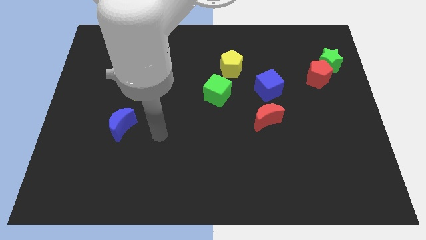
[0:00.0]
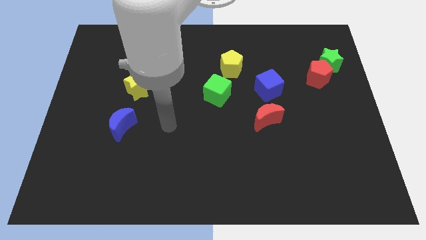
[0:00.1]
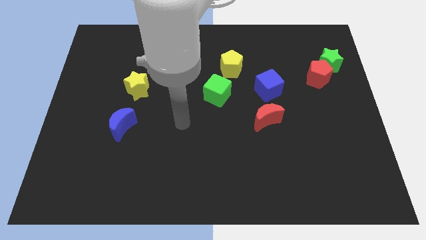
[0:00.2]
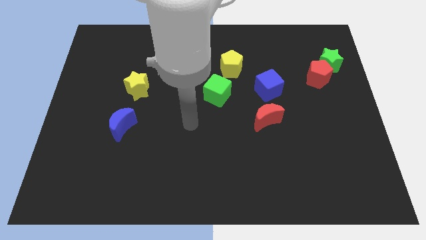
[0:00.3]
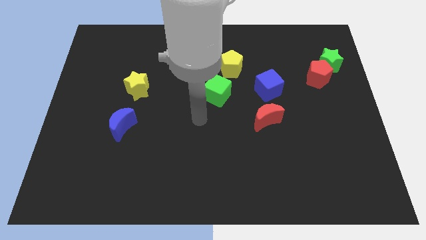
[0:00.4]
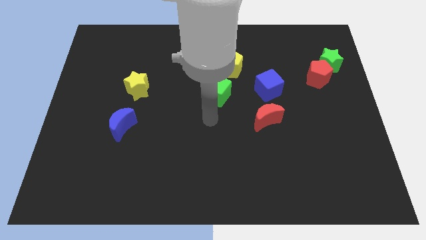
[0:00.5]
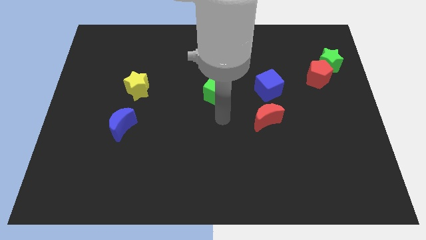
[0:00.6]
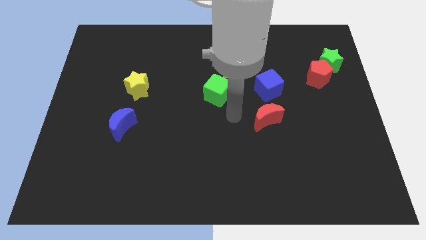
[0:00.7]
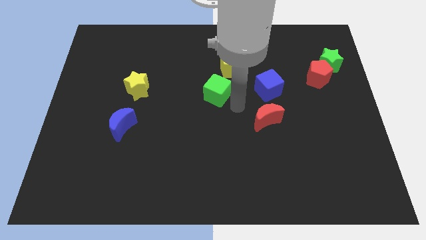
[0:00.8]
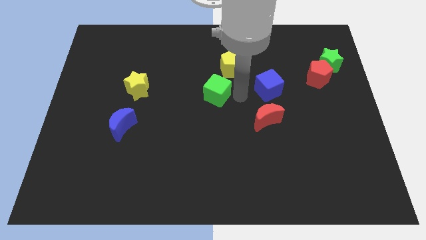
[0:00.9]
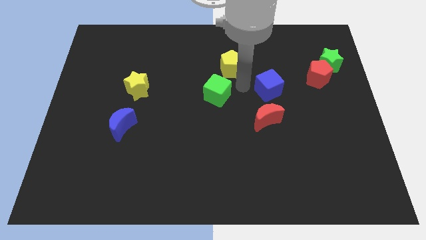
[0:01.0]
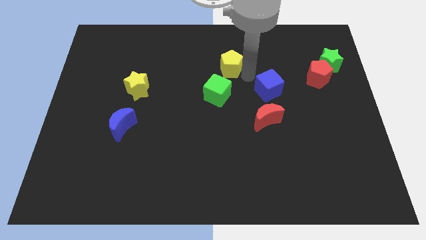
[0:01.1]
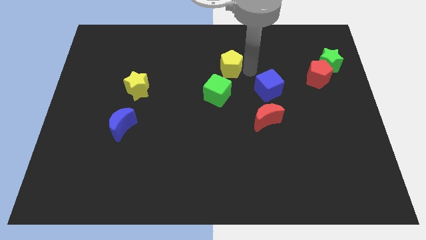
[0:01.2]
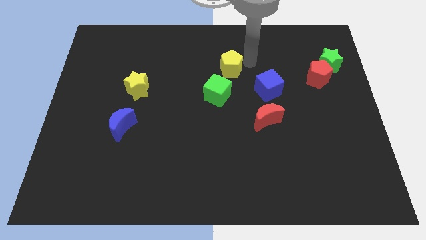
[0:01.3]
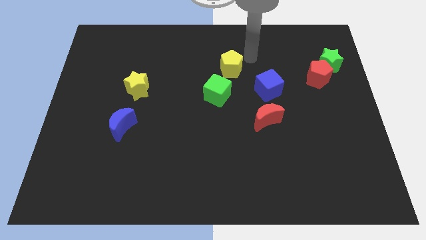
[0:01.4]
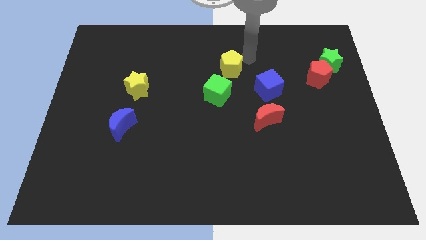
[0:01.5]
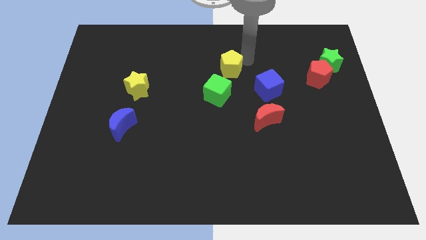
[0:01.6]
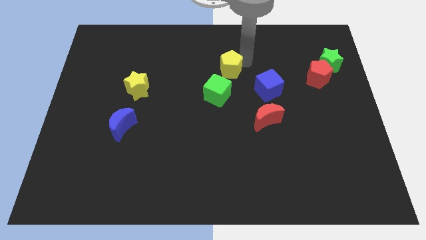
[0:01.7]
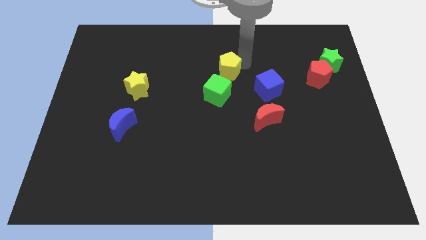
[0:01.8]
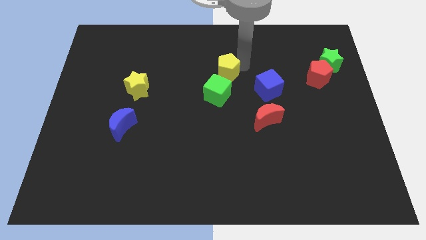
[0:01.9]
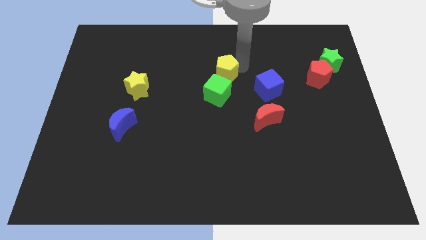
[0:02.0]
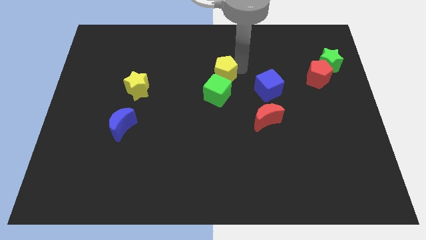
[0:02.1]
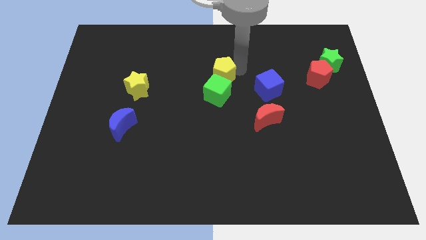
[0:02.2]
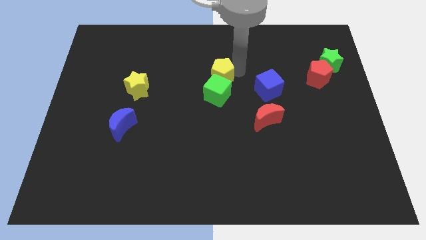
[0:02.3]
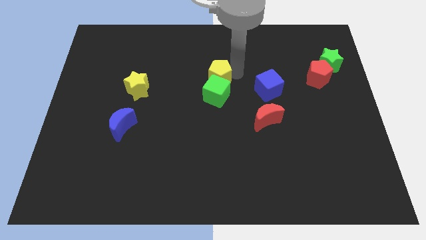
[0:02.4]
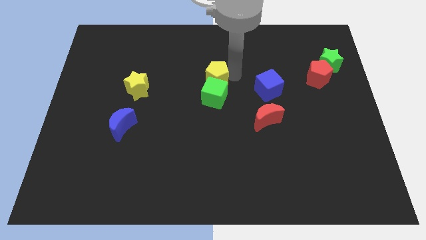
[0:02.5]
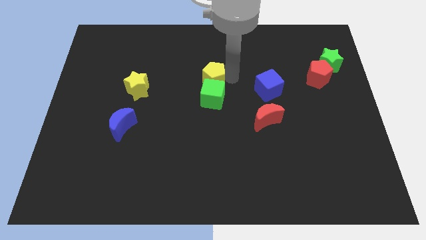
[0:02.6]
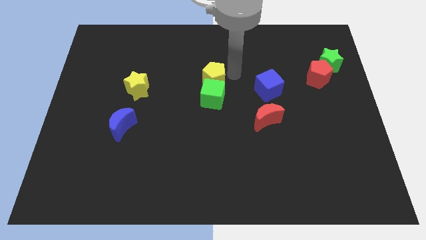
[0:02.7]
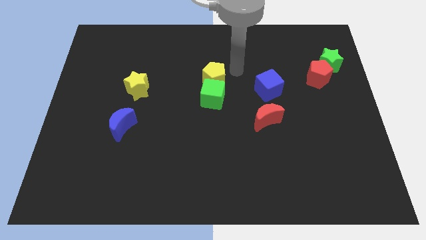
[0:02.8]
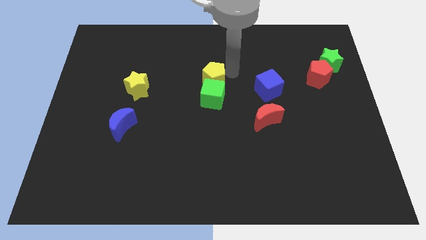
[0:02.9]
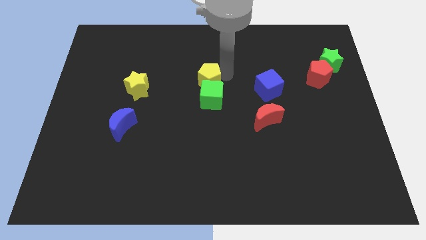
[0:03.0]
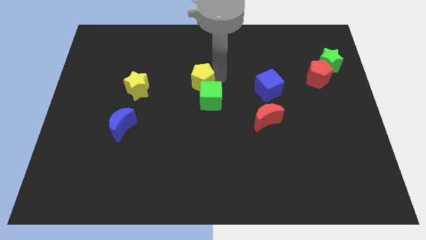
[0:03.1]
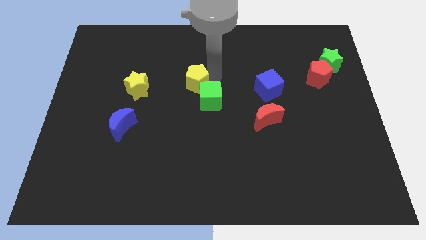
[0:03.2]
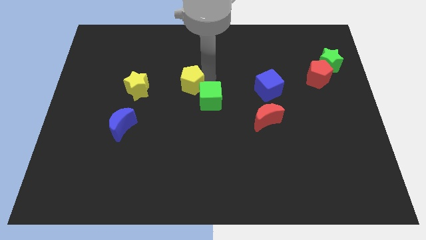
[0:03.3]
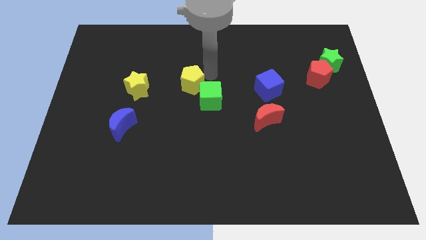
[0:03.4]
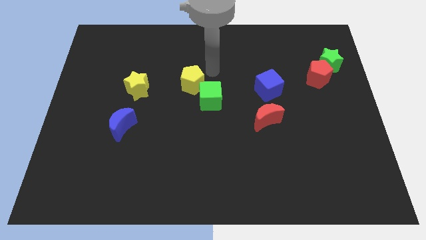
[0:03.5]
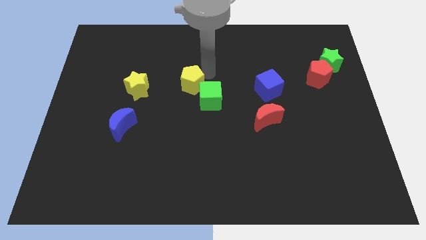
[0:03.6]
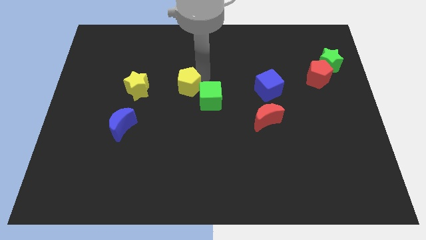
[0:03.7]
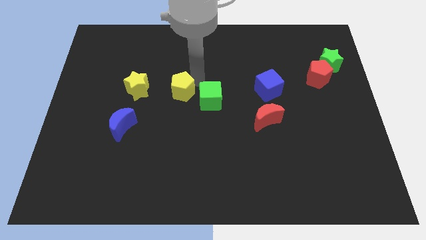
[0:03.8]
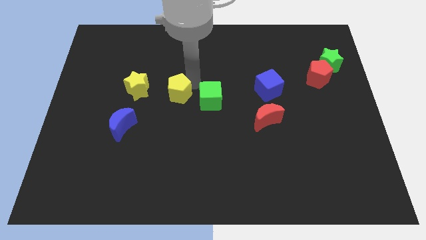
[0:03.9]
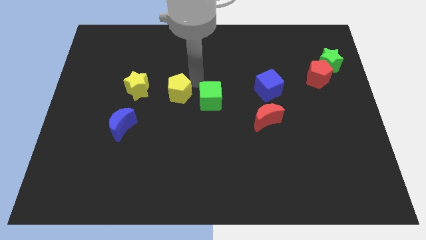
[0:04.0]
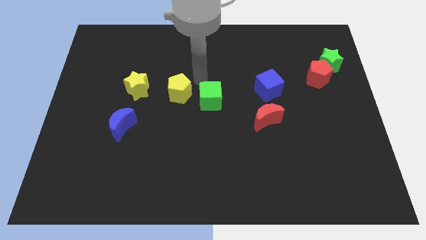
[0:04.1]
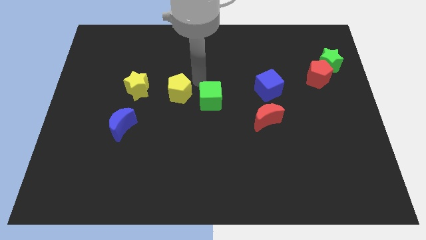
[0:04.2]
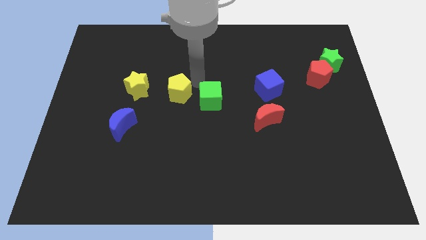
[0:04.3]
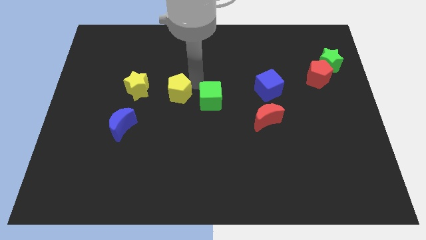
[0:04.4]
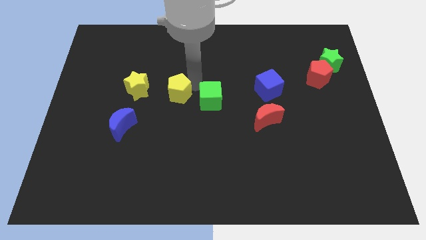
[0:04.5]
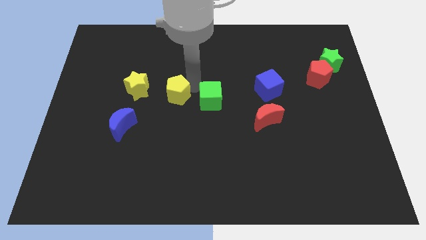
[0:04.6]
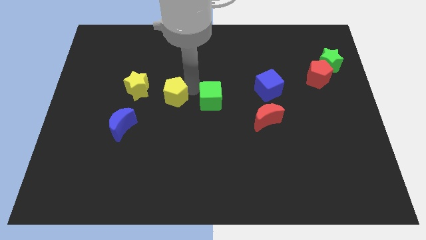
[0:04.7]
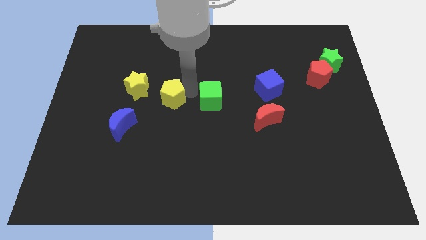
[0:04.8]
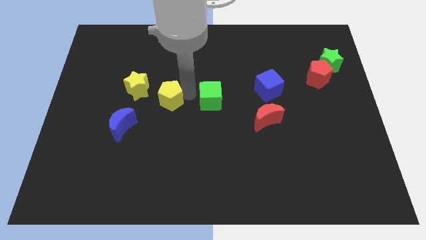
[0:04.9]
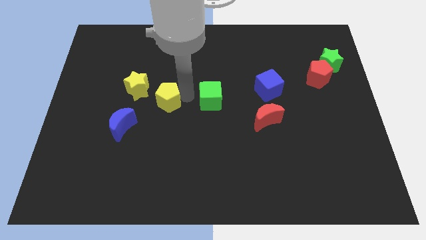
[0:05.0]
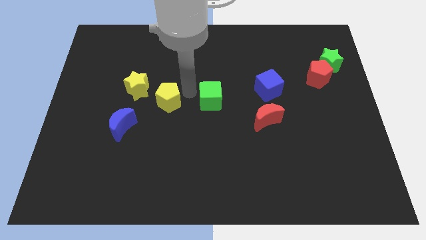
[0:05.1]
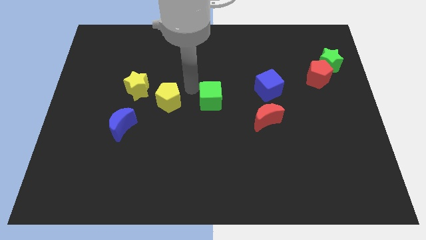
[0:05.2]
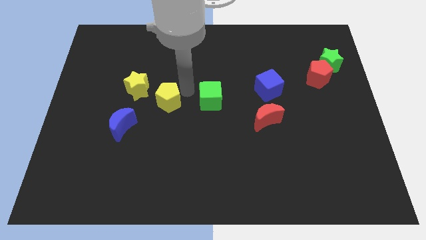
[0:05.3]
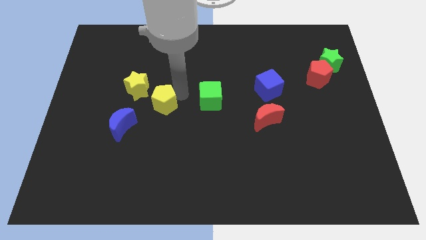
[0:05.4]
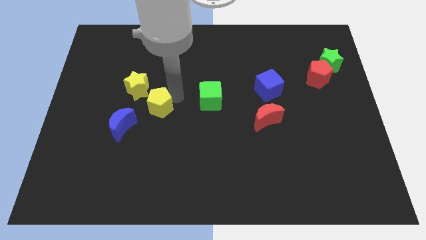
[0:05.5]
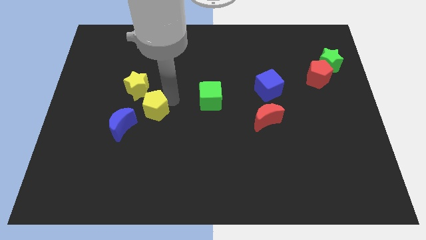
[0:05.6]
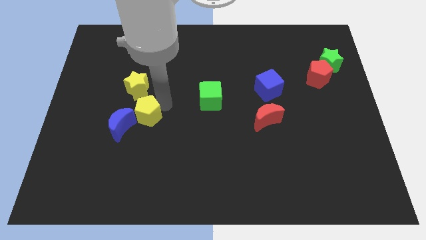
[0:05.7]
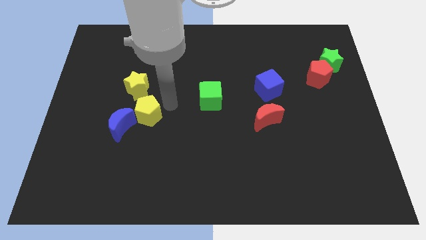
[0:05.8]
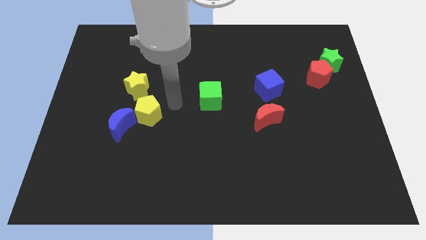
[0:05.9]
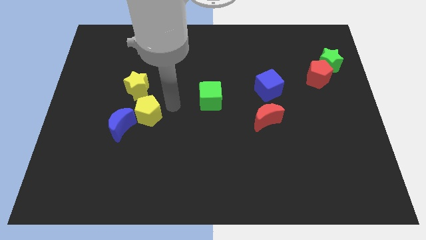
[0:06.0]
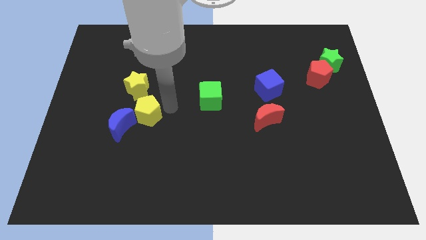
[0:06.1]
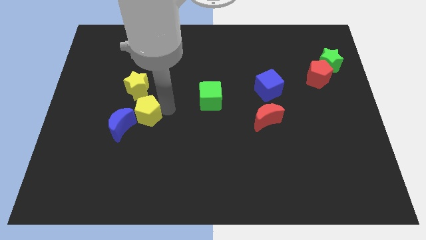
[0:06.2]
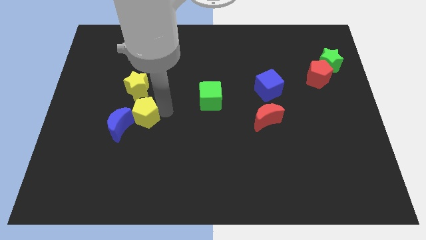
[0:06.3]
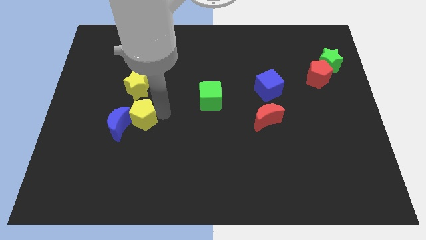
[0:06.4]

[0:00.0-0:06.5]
slide the yellow pentagon towards the blue moon
